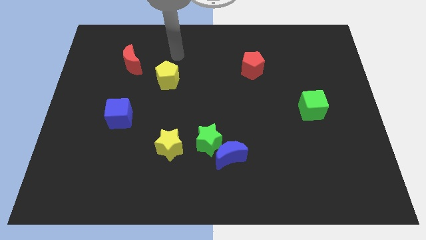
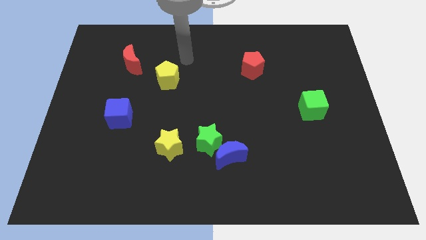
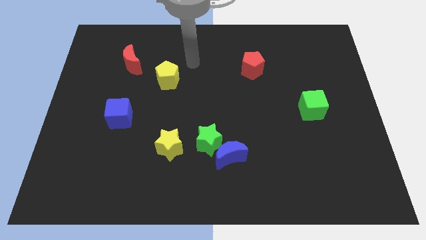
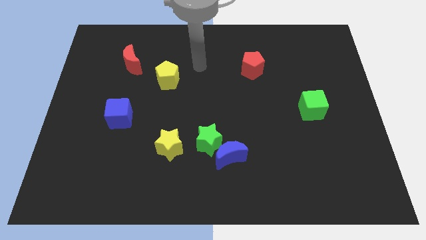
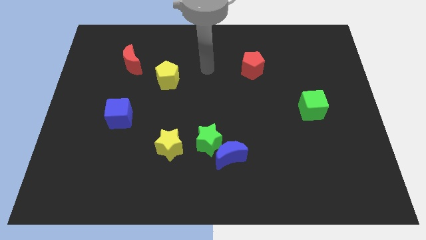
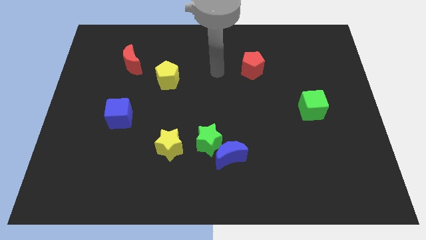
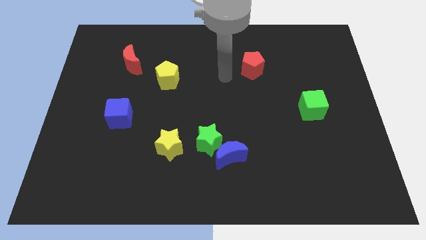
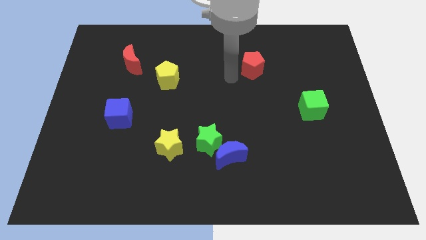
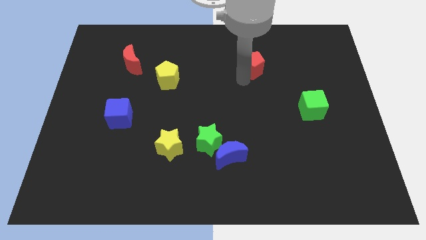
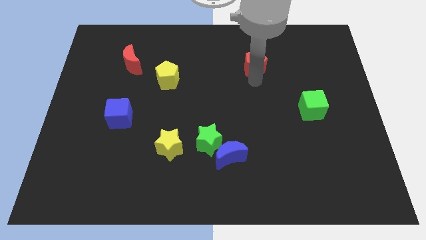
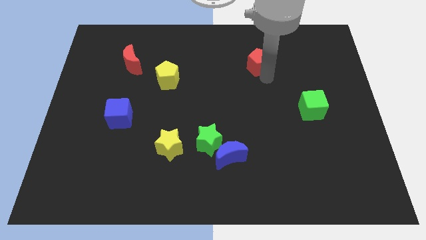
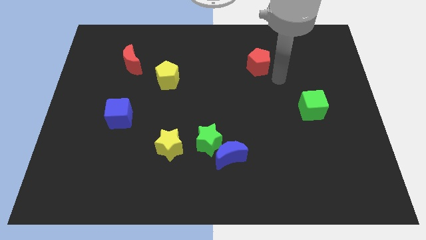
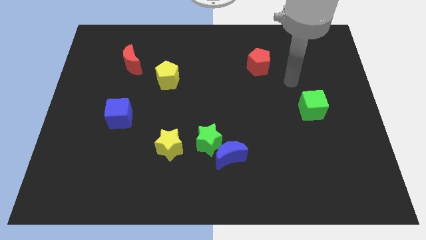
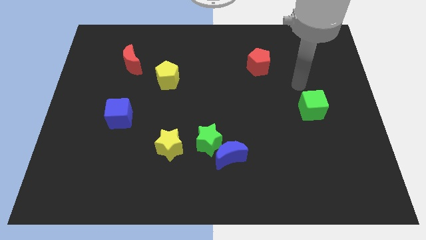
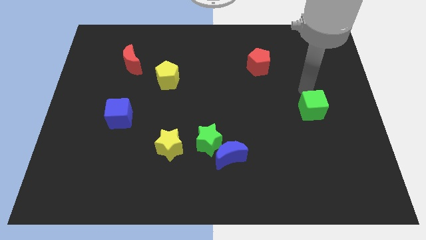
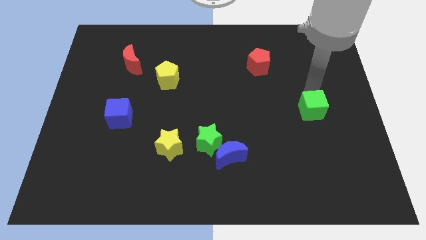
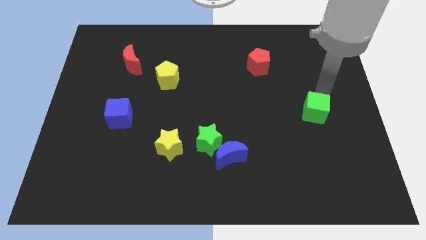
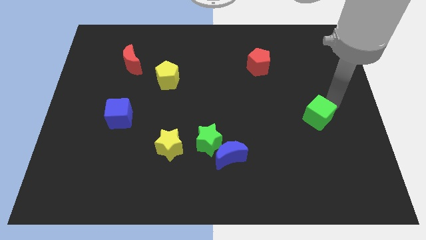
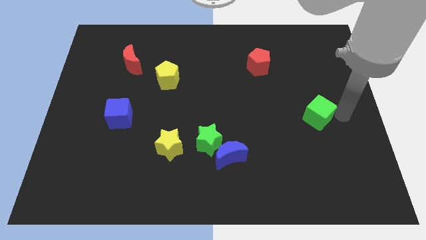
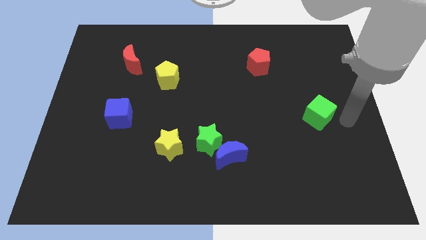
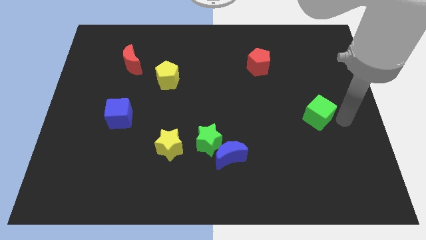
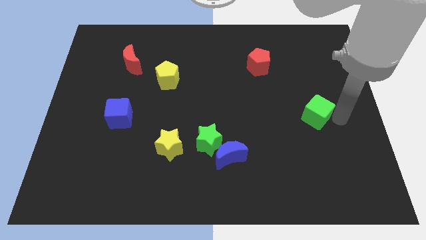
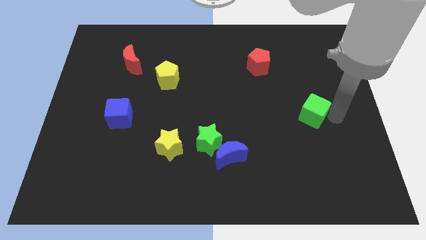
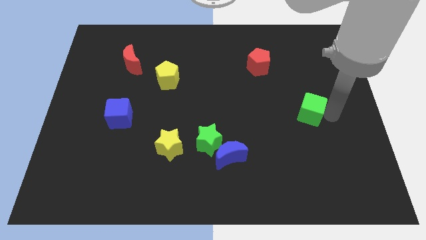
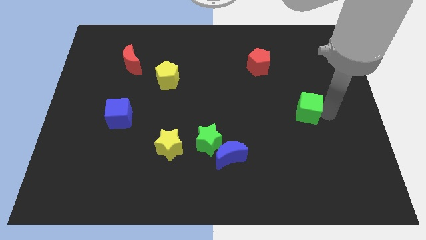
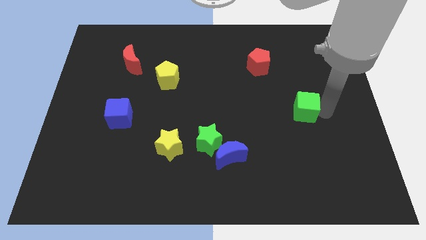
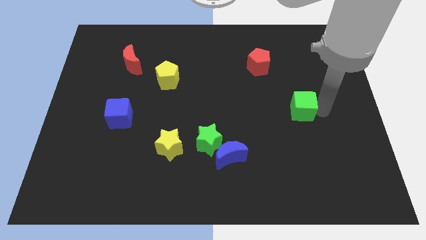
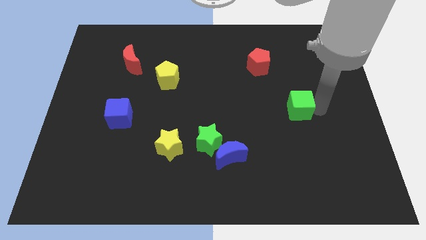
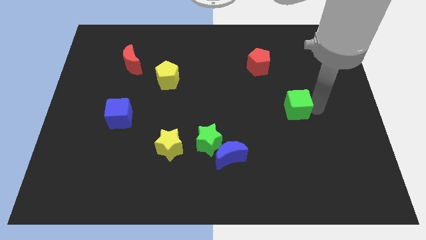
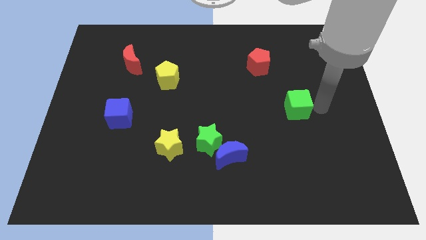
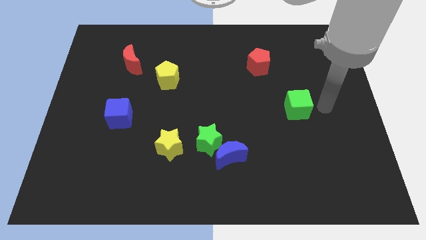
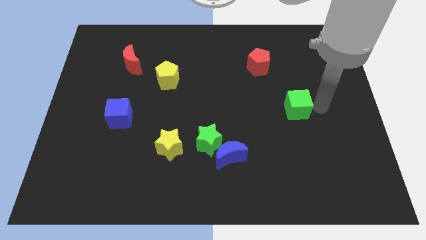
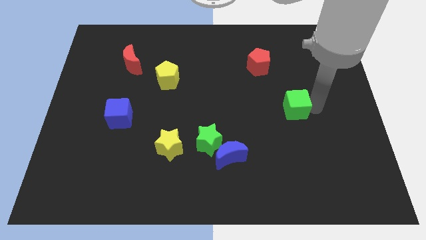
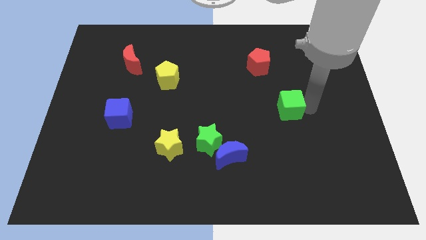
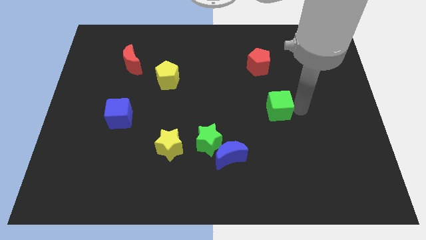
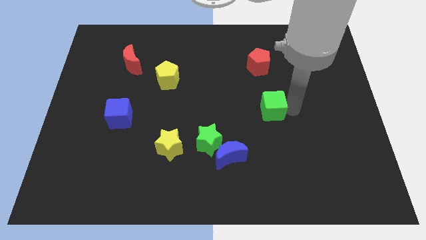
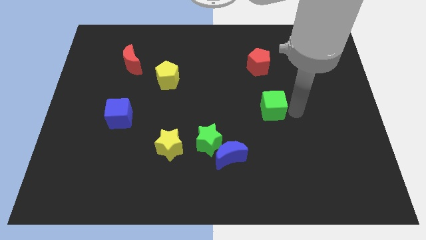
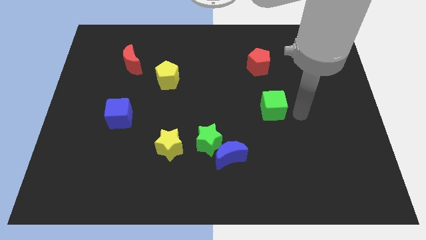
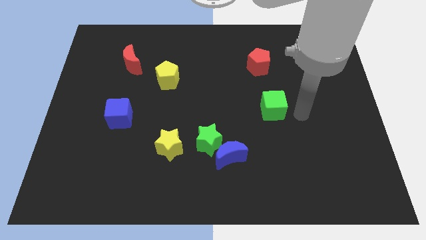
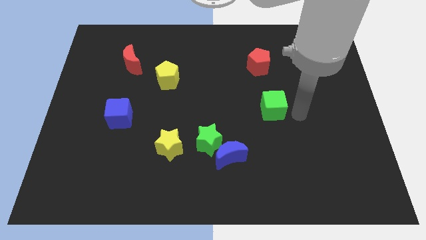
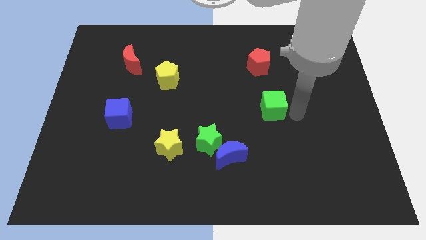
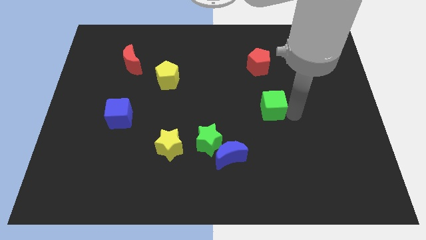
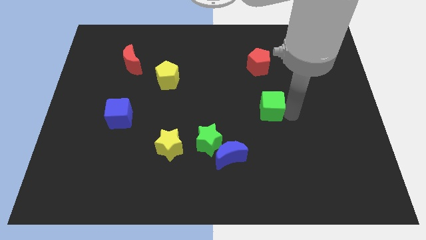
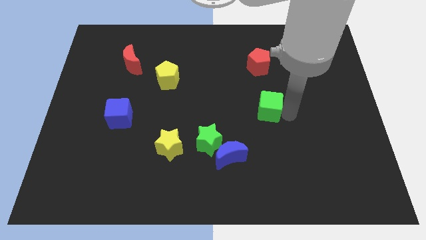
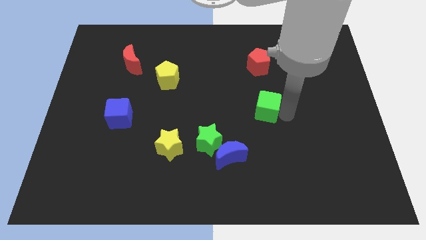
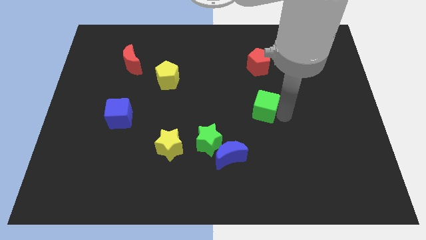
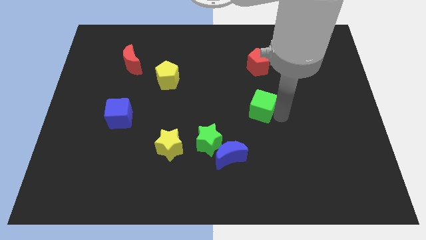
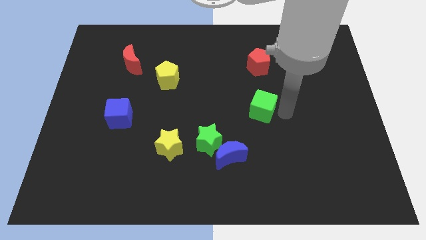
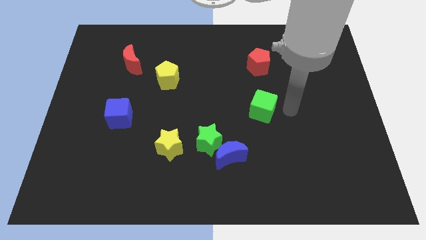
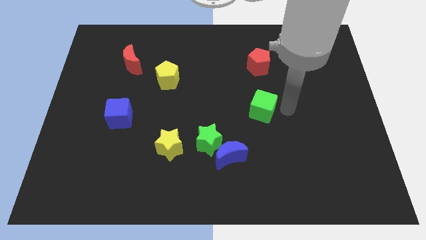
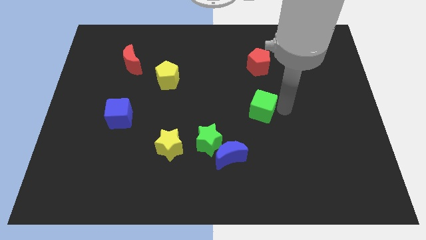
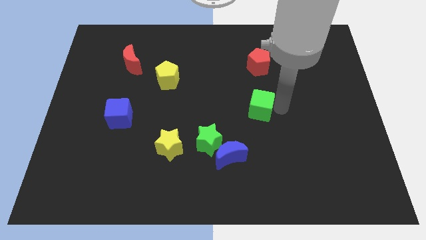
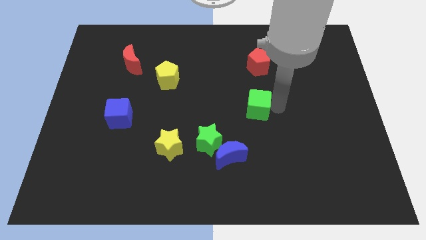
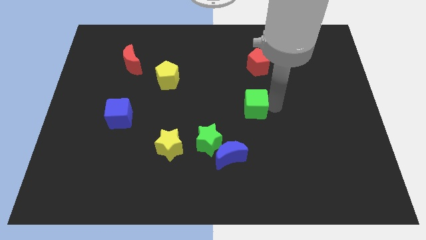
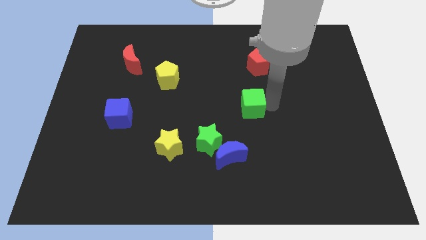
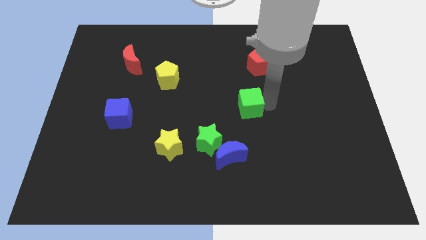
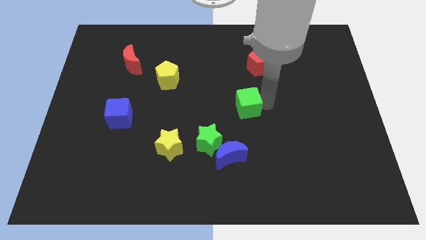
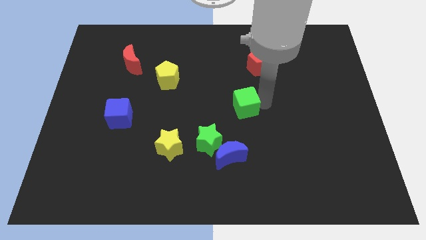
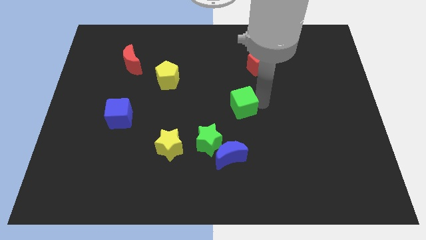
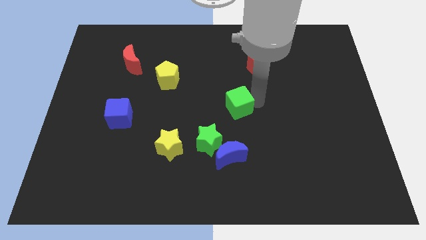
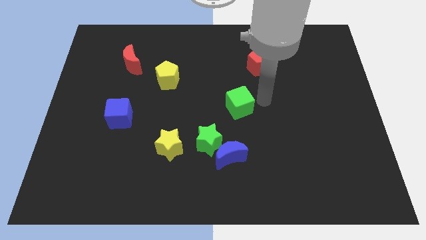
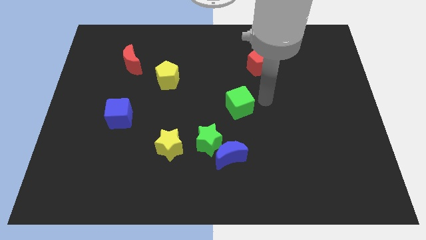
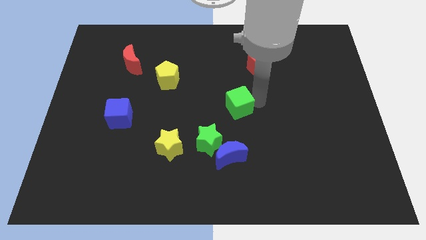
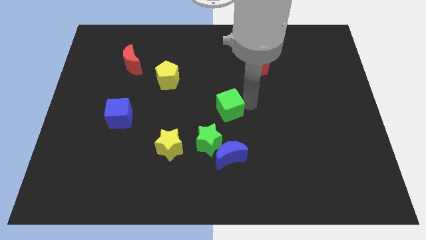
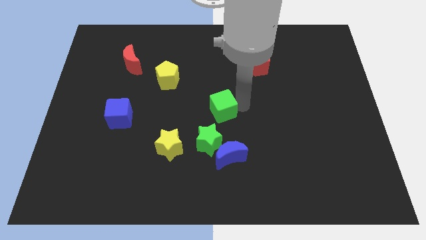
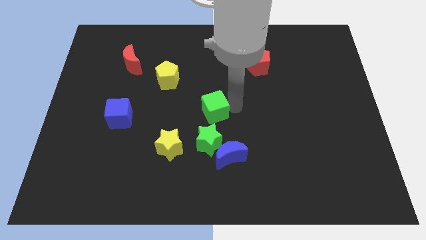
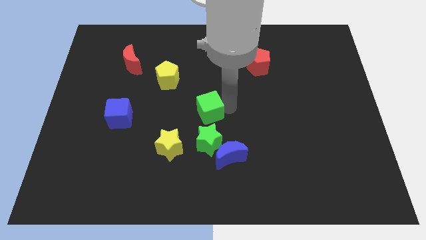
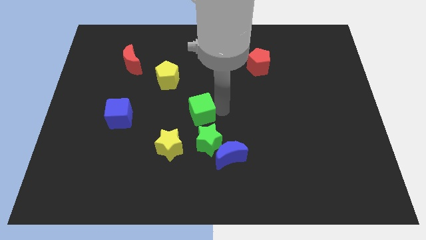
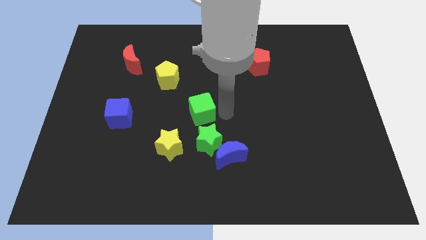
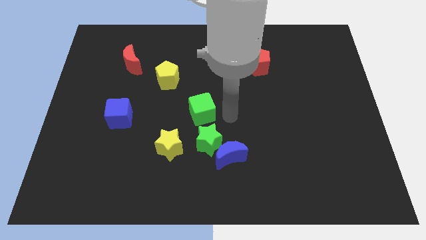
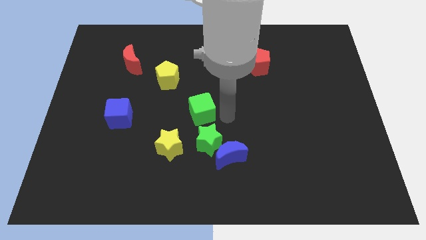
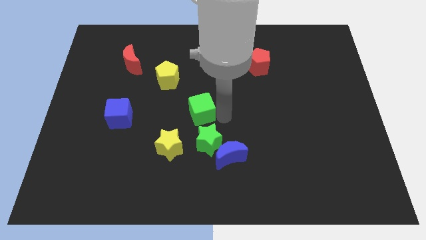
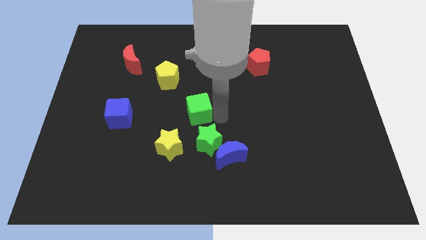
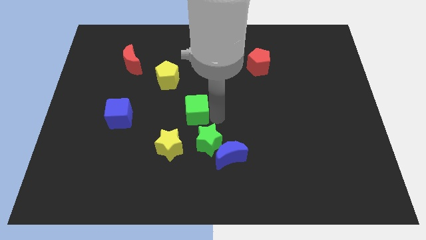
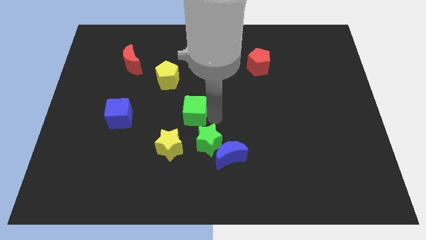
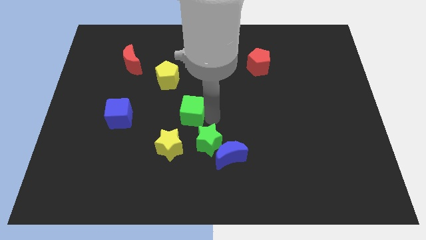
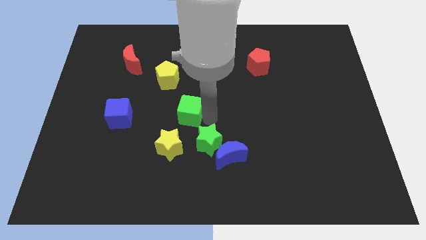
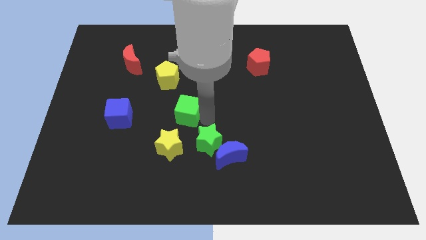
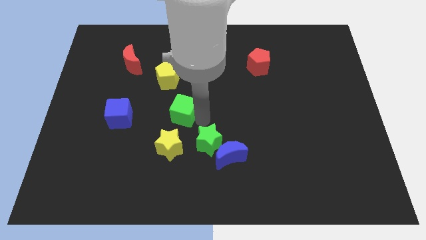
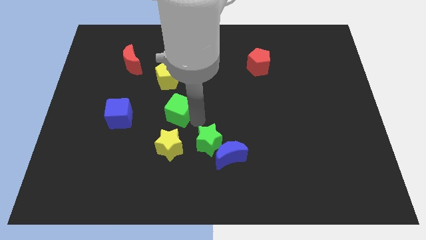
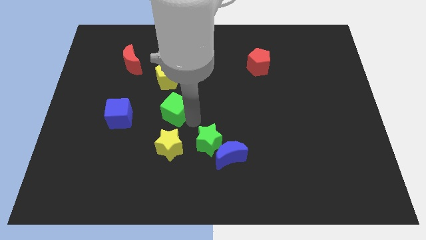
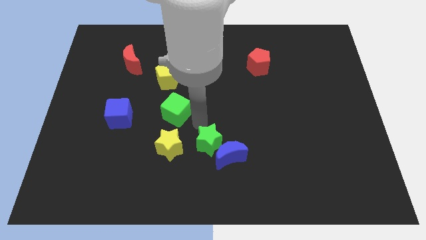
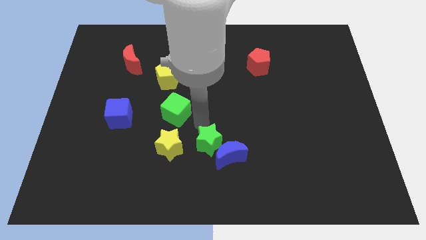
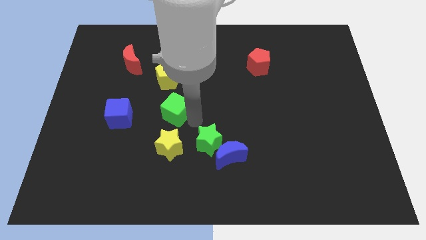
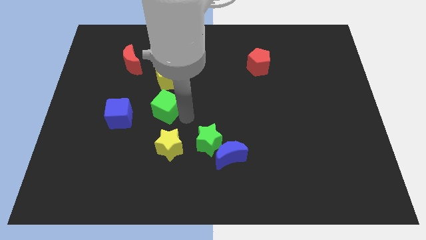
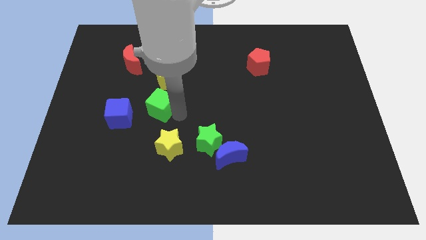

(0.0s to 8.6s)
move the green cube diagonally up and to the right of the blue cube
